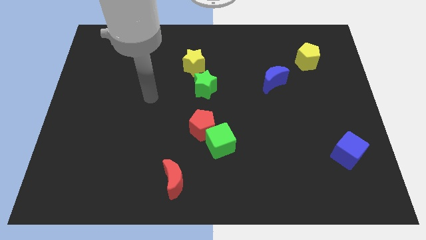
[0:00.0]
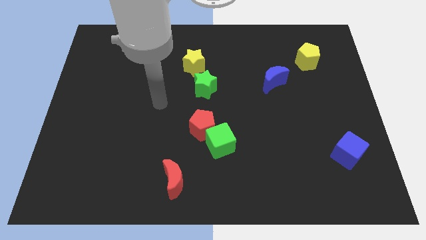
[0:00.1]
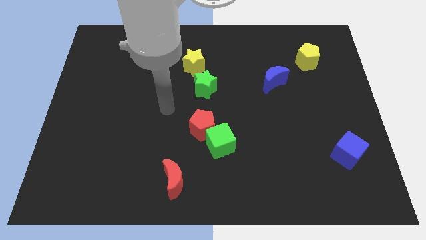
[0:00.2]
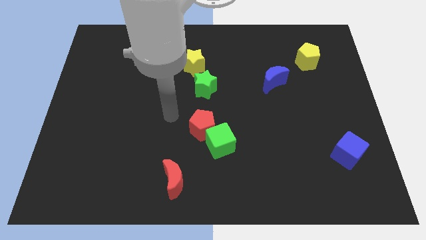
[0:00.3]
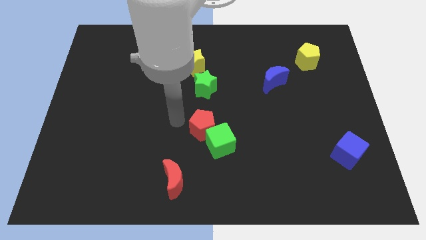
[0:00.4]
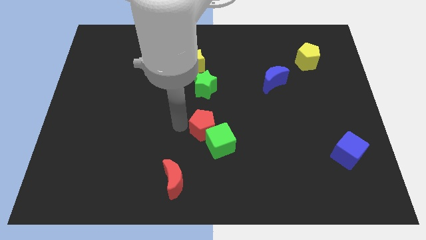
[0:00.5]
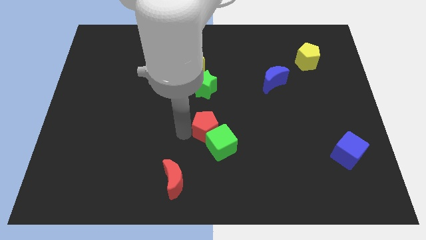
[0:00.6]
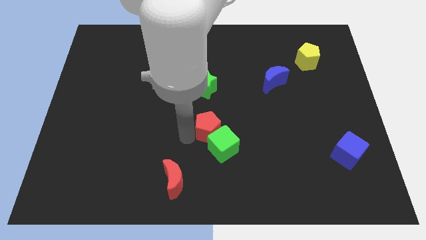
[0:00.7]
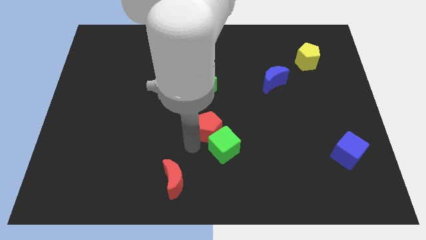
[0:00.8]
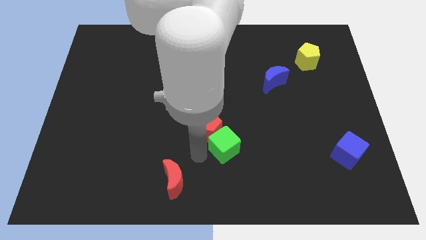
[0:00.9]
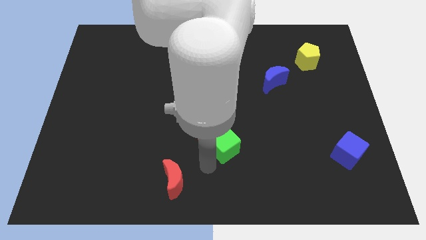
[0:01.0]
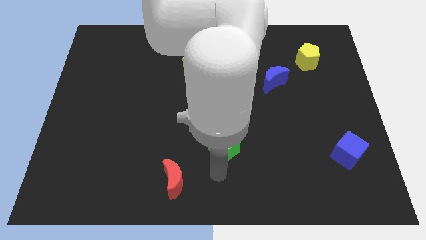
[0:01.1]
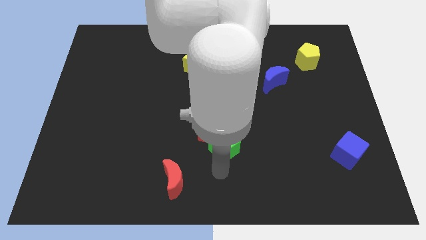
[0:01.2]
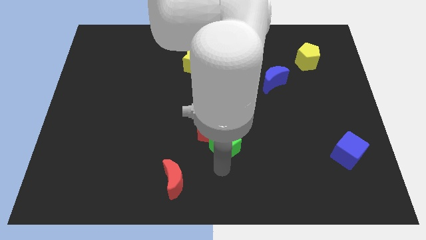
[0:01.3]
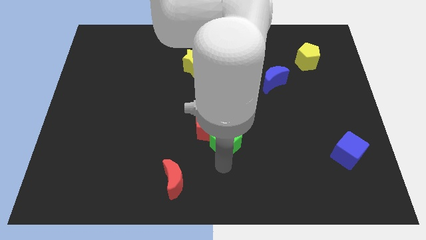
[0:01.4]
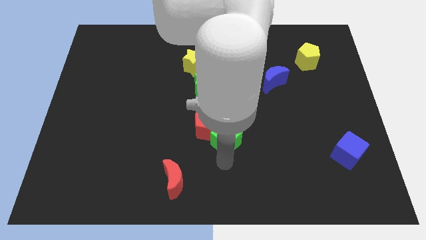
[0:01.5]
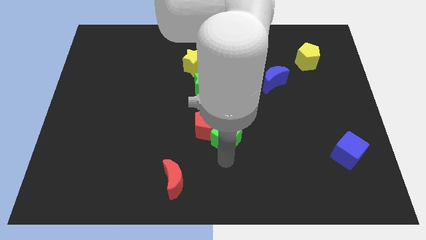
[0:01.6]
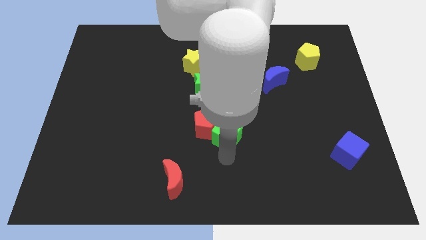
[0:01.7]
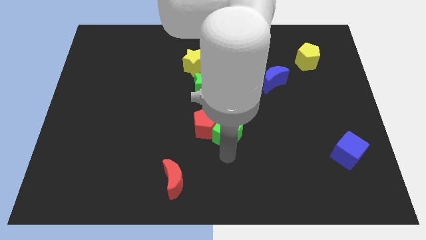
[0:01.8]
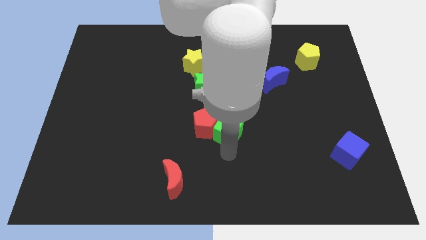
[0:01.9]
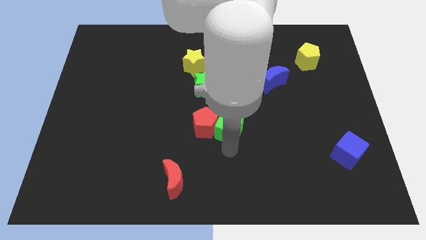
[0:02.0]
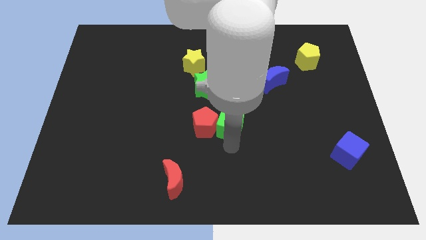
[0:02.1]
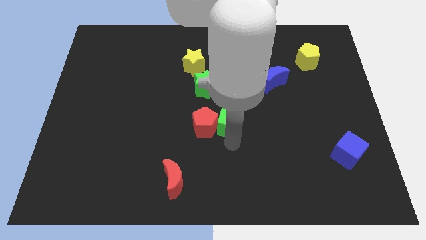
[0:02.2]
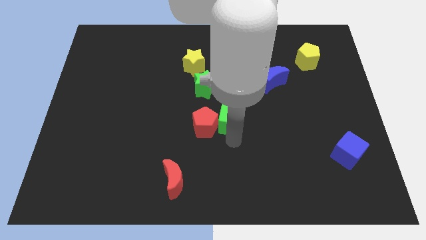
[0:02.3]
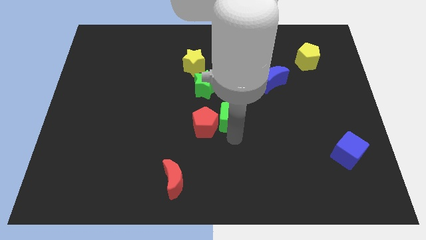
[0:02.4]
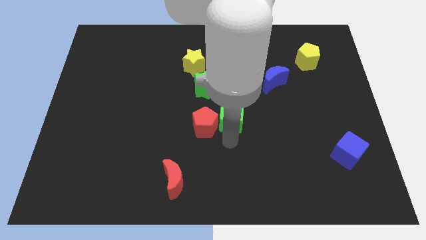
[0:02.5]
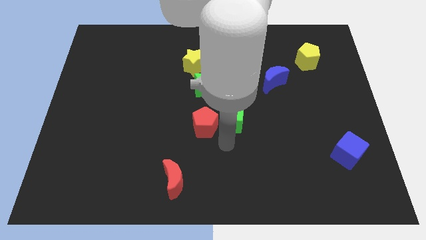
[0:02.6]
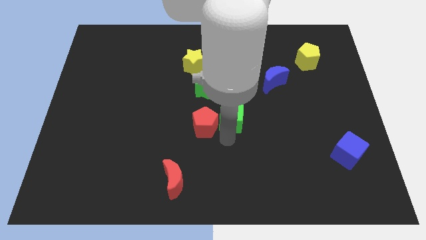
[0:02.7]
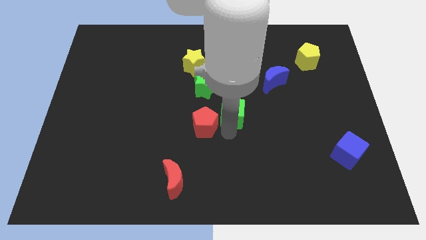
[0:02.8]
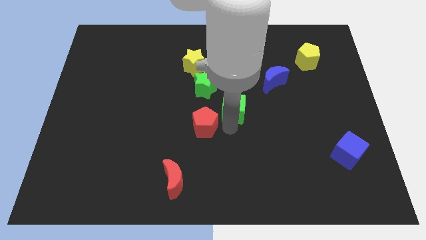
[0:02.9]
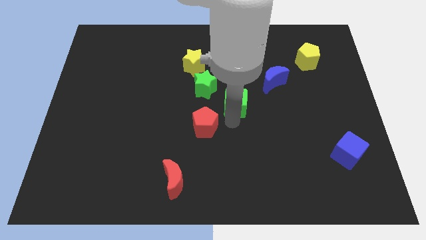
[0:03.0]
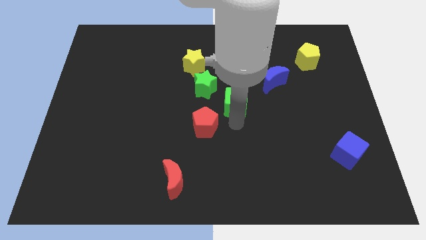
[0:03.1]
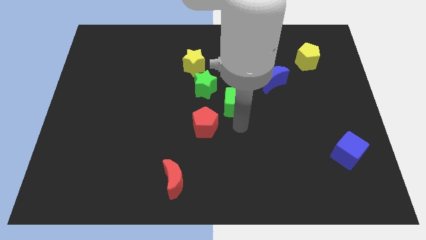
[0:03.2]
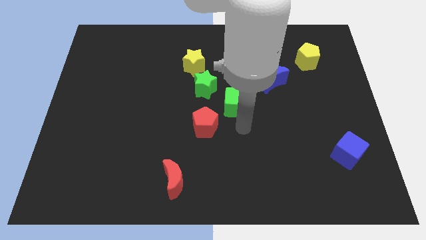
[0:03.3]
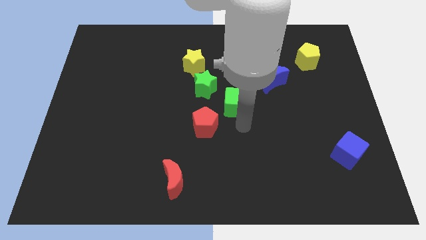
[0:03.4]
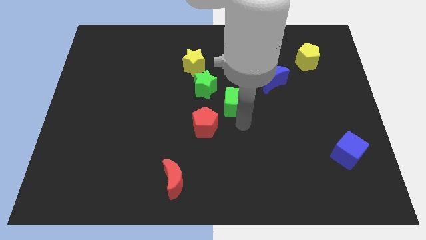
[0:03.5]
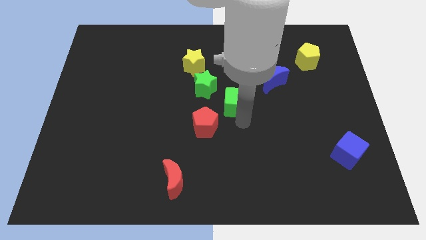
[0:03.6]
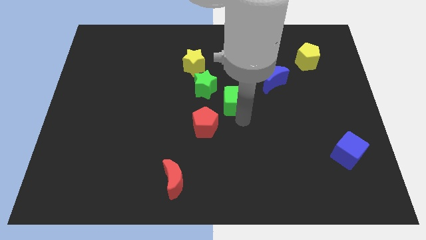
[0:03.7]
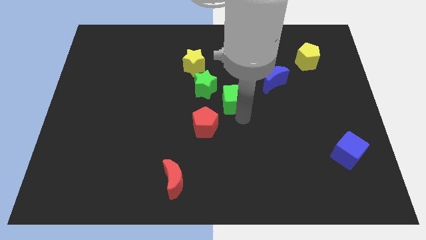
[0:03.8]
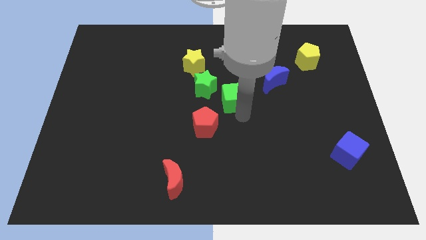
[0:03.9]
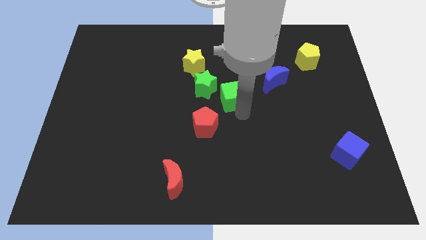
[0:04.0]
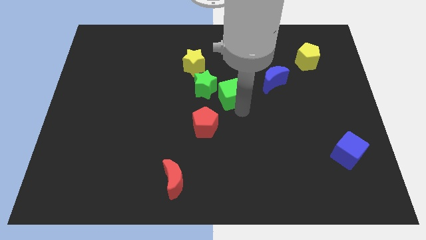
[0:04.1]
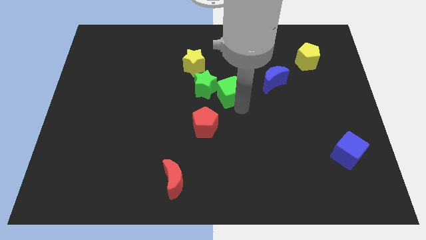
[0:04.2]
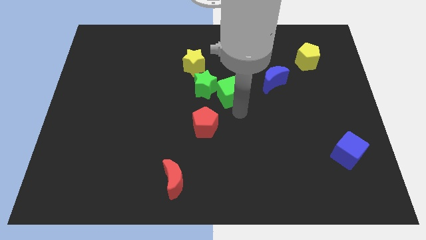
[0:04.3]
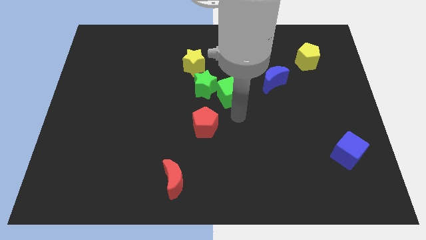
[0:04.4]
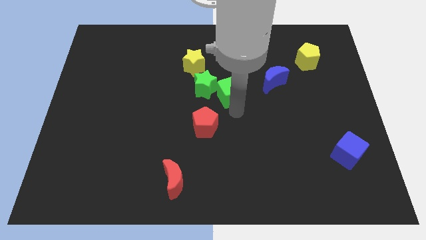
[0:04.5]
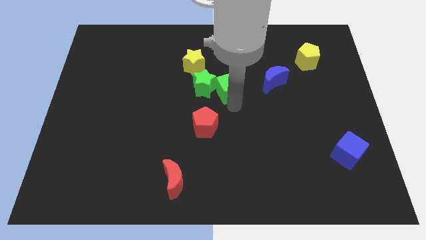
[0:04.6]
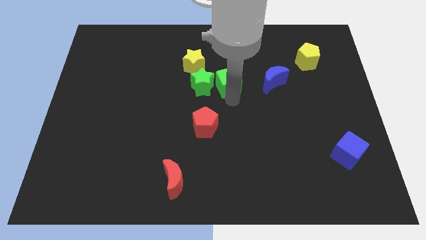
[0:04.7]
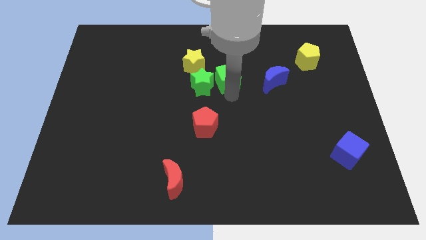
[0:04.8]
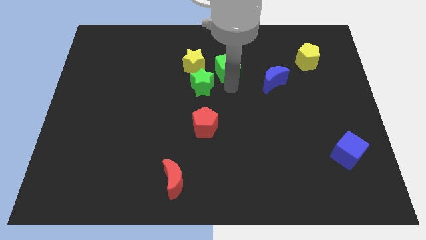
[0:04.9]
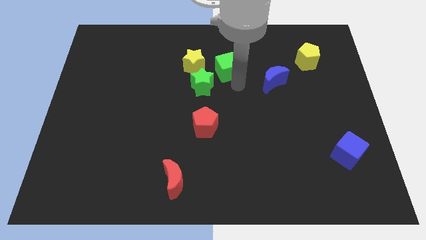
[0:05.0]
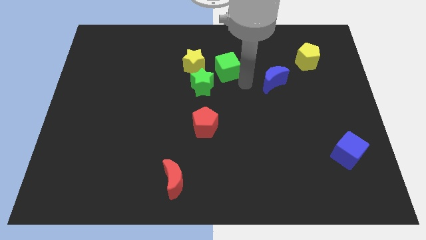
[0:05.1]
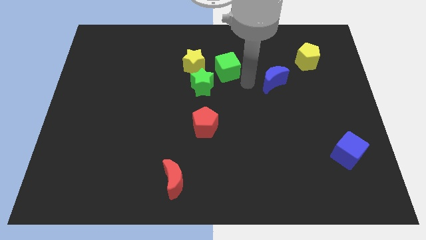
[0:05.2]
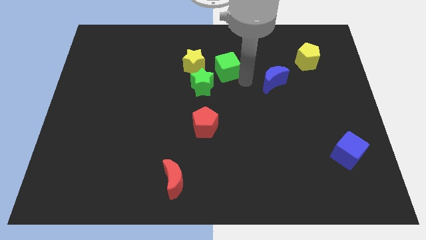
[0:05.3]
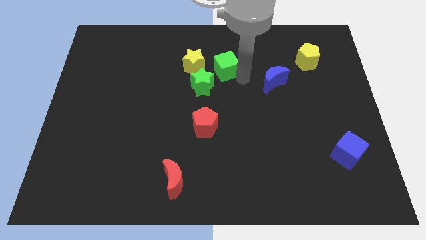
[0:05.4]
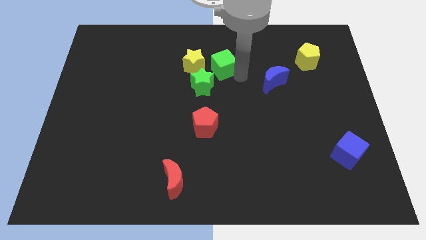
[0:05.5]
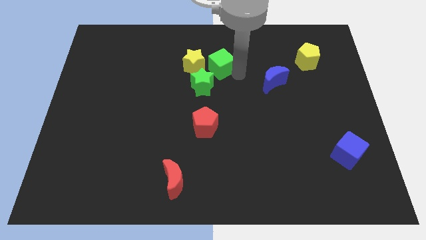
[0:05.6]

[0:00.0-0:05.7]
put the green cube above the green star

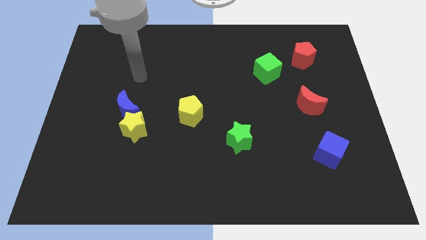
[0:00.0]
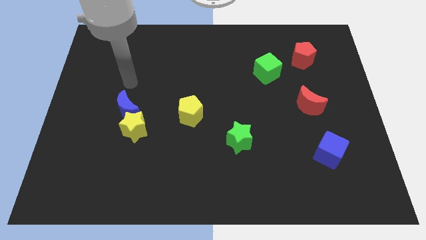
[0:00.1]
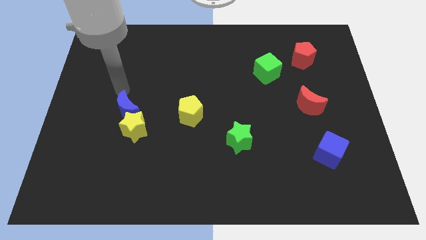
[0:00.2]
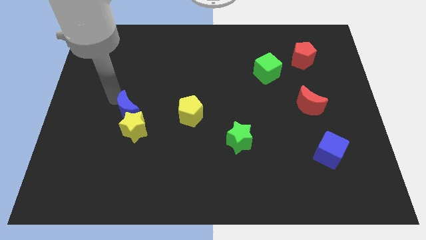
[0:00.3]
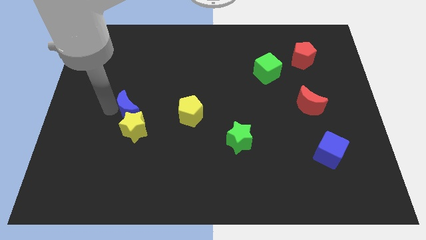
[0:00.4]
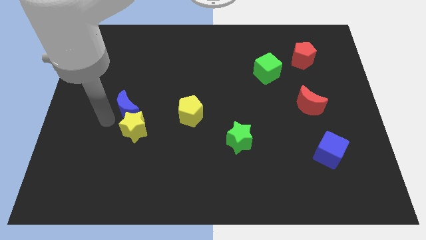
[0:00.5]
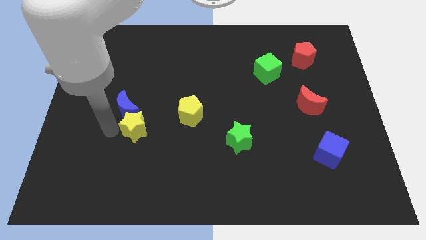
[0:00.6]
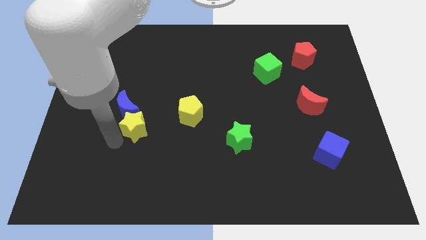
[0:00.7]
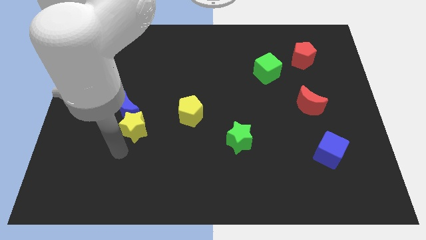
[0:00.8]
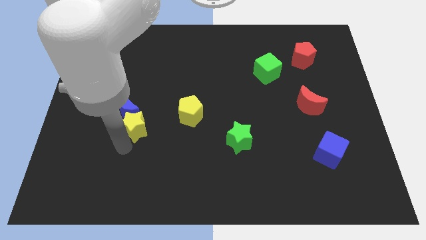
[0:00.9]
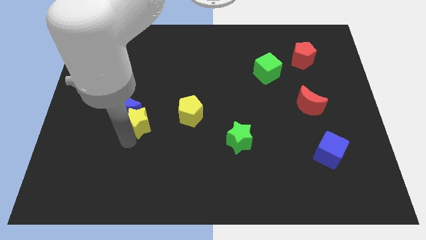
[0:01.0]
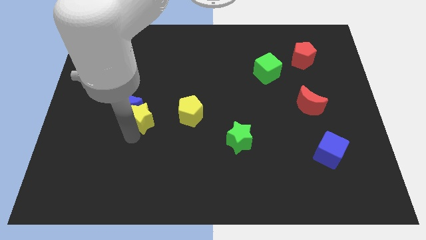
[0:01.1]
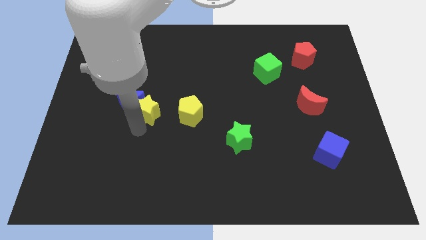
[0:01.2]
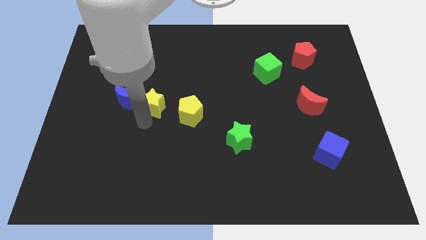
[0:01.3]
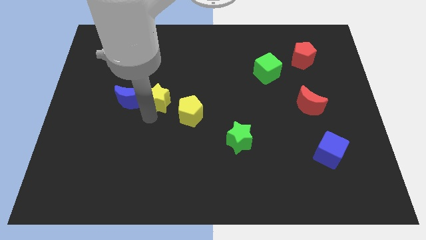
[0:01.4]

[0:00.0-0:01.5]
slide the yellow star to the top right of the blue moon
